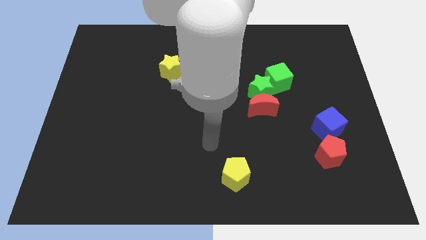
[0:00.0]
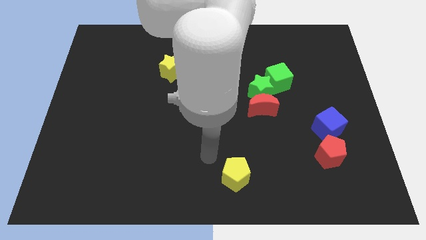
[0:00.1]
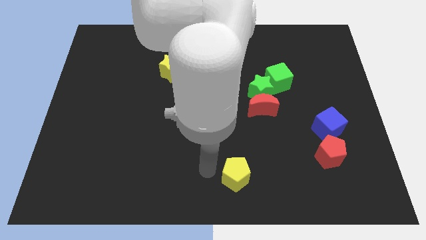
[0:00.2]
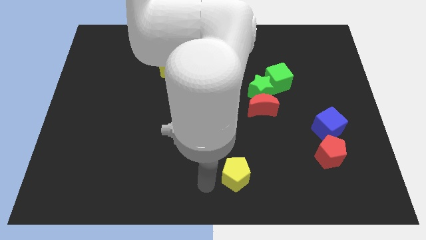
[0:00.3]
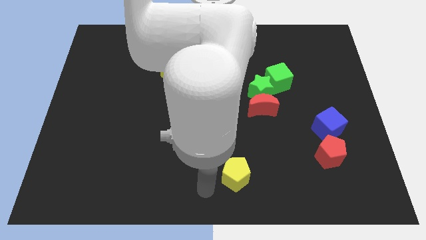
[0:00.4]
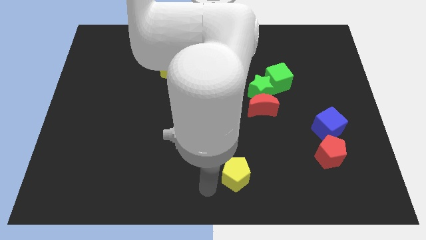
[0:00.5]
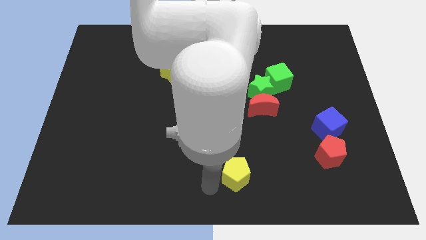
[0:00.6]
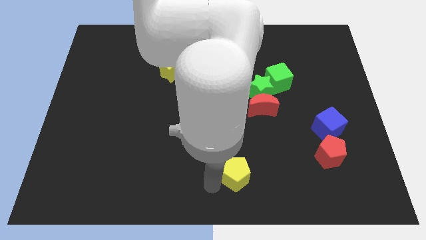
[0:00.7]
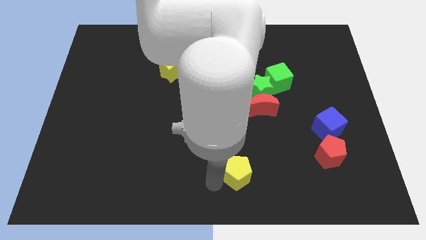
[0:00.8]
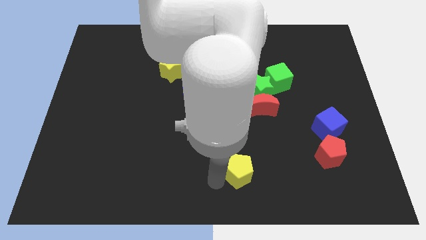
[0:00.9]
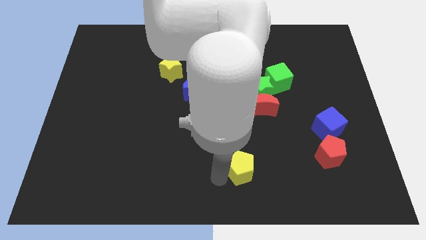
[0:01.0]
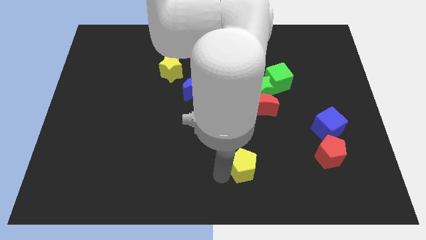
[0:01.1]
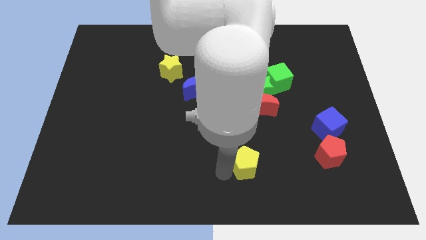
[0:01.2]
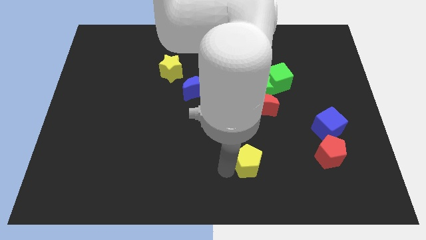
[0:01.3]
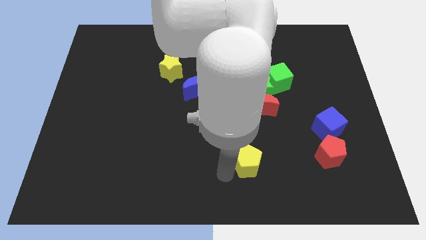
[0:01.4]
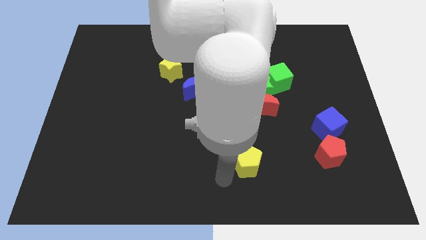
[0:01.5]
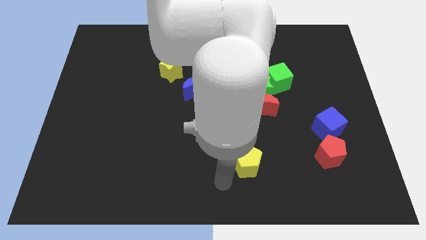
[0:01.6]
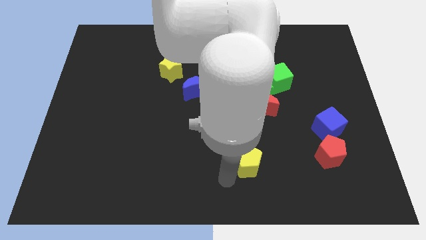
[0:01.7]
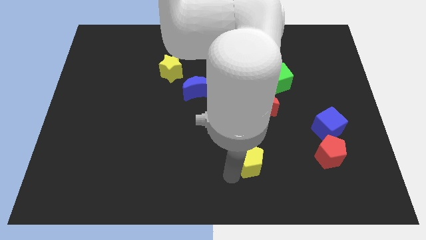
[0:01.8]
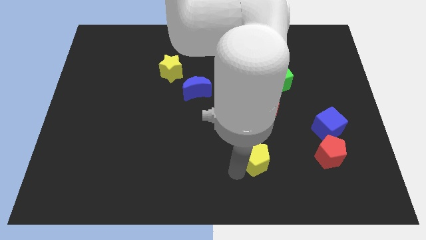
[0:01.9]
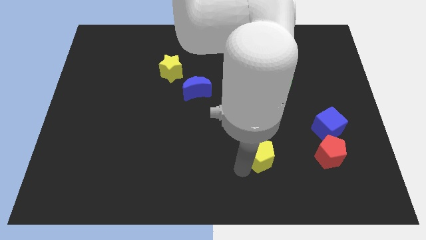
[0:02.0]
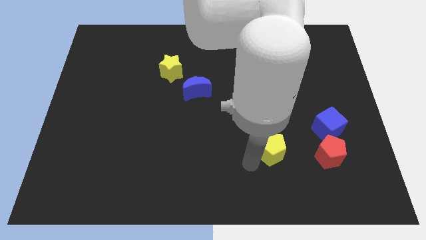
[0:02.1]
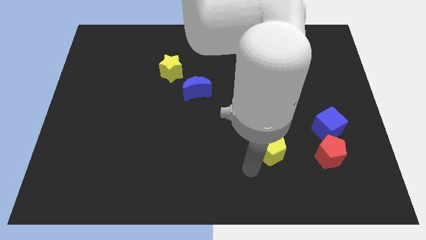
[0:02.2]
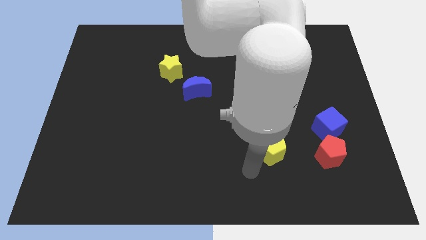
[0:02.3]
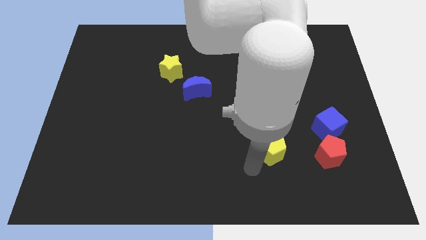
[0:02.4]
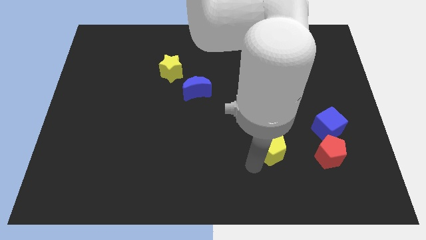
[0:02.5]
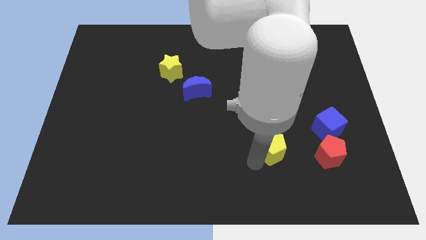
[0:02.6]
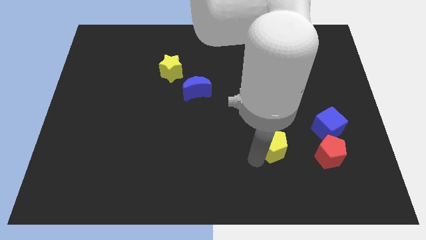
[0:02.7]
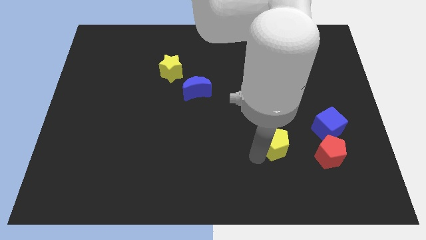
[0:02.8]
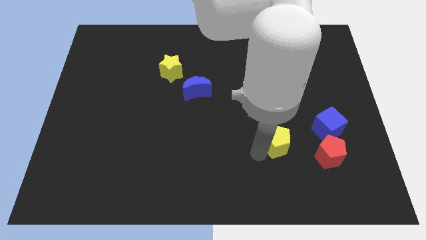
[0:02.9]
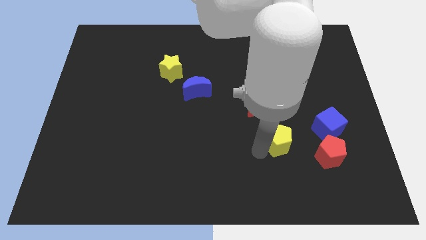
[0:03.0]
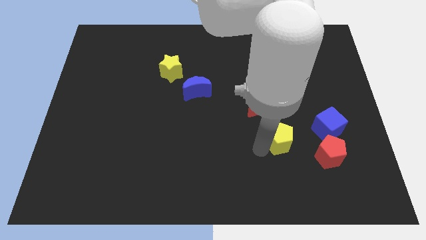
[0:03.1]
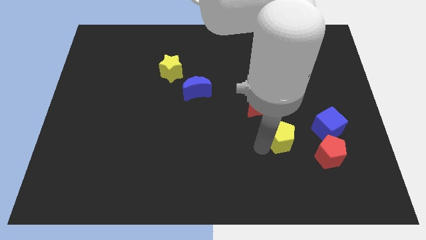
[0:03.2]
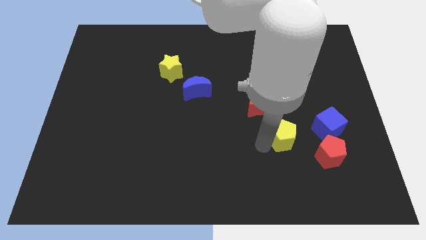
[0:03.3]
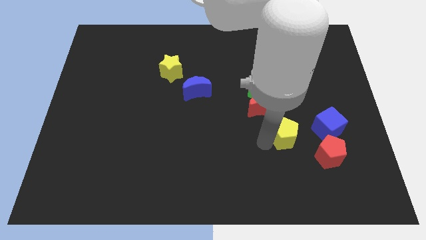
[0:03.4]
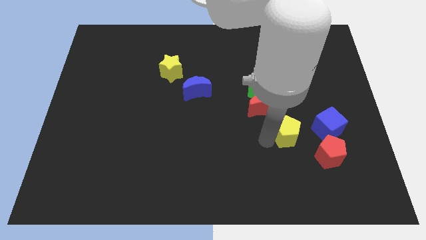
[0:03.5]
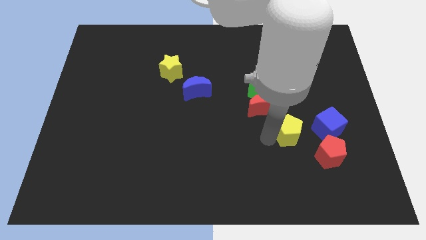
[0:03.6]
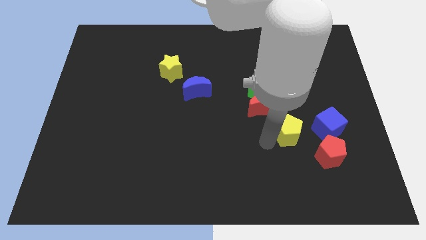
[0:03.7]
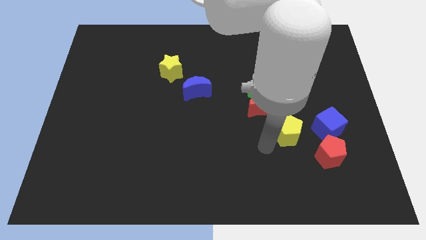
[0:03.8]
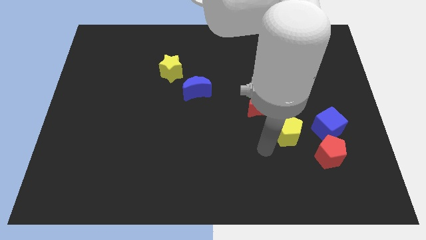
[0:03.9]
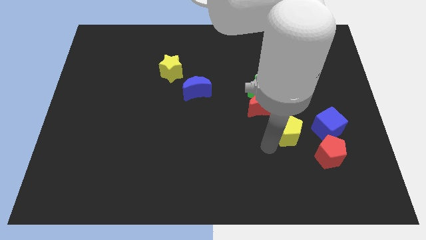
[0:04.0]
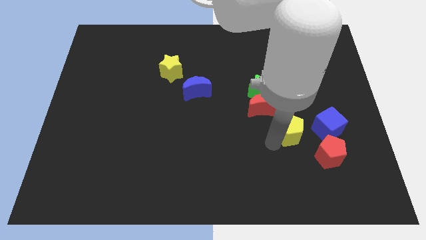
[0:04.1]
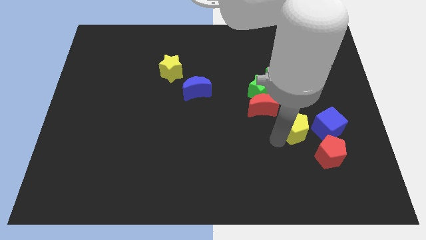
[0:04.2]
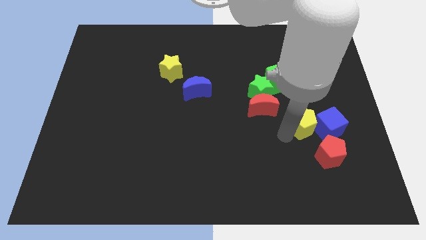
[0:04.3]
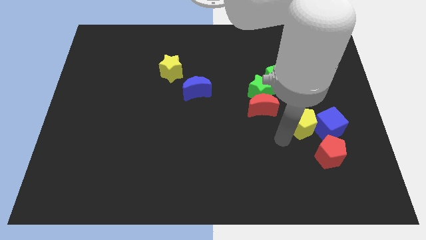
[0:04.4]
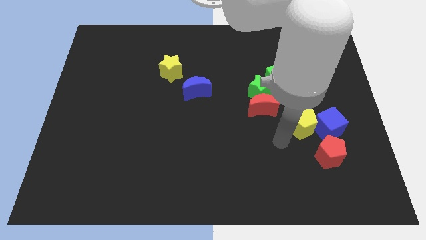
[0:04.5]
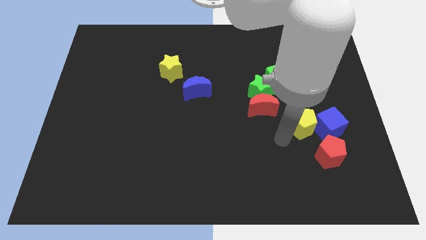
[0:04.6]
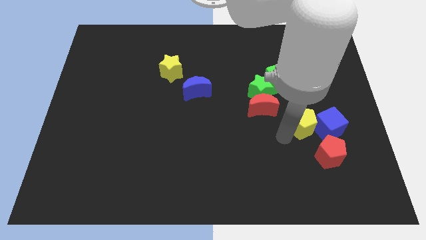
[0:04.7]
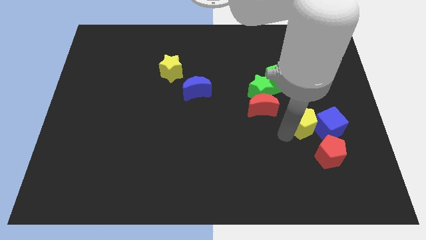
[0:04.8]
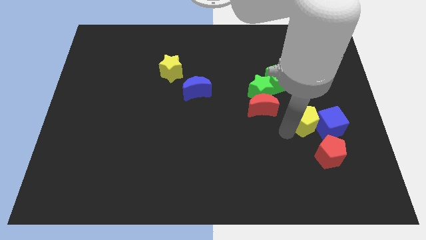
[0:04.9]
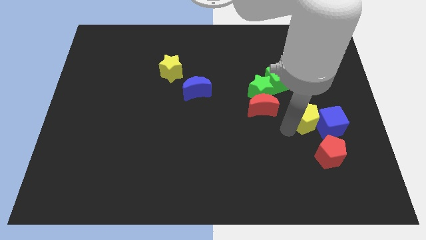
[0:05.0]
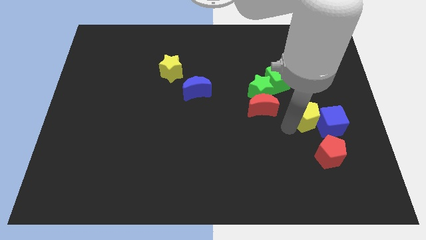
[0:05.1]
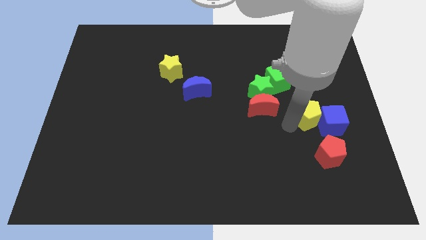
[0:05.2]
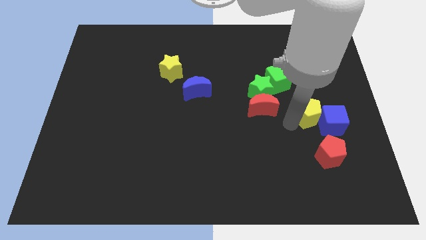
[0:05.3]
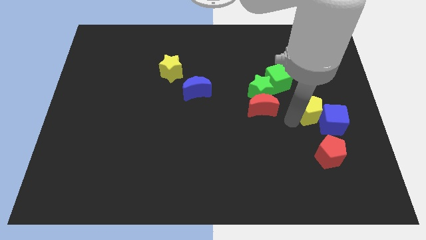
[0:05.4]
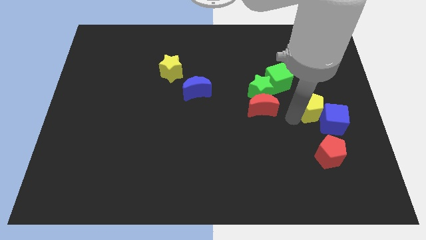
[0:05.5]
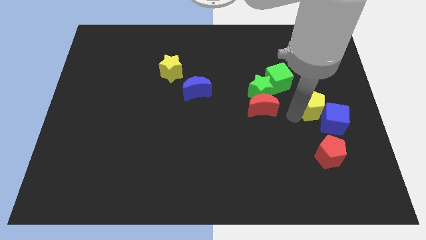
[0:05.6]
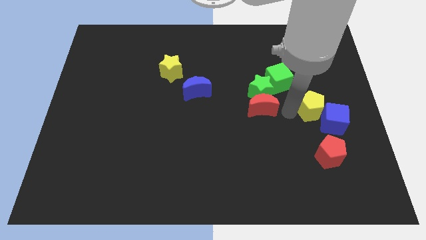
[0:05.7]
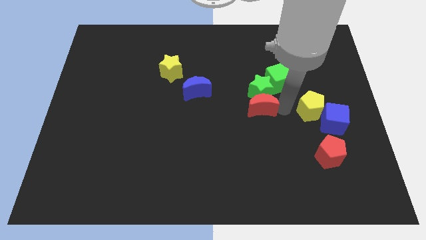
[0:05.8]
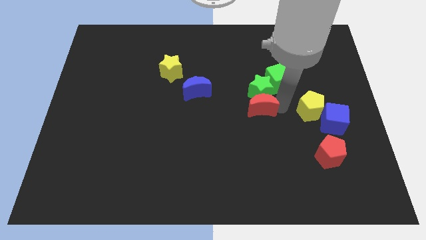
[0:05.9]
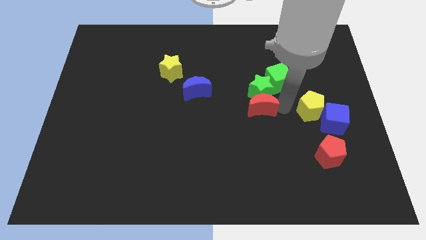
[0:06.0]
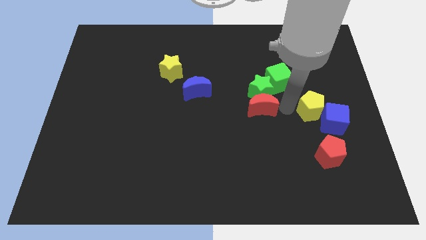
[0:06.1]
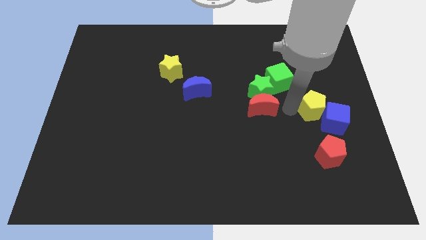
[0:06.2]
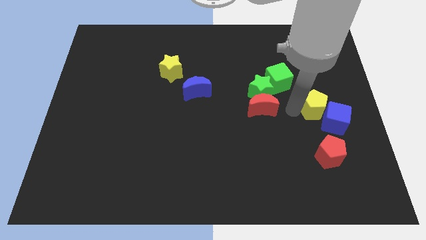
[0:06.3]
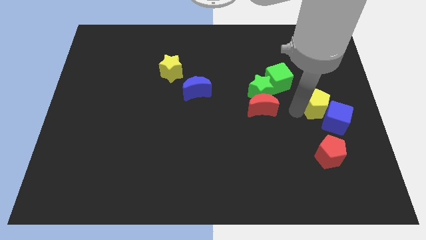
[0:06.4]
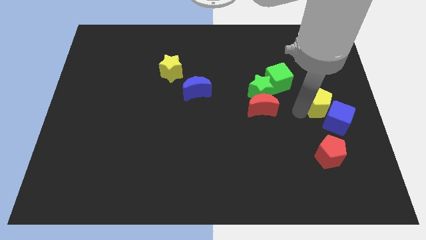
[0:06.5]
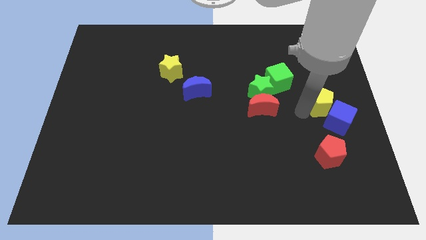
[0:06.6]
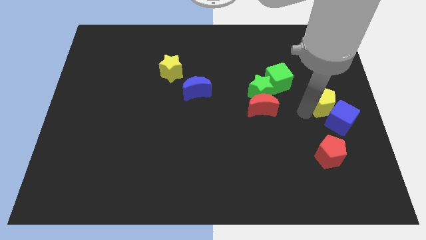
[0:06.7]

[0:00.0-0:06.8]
put the yellow pentagon to the center right
